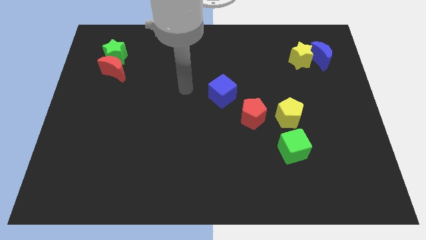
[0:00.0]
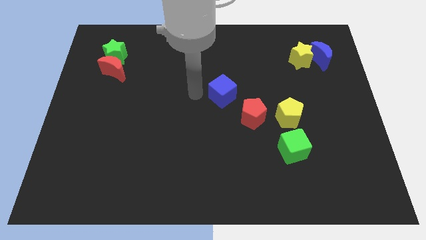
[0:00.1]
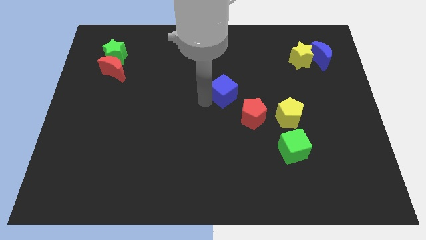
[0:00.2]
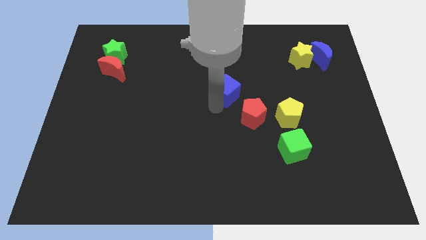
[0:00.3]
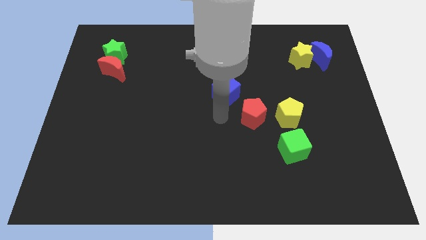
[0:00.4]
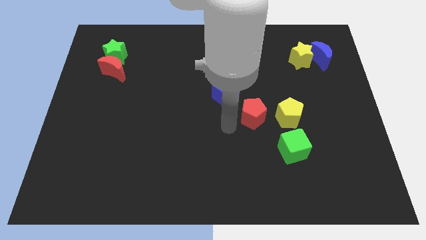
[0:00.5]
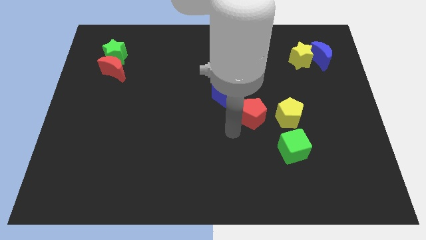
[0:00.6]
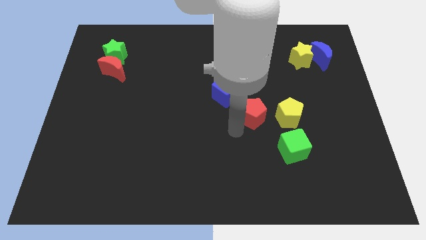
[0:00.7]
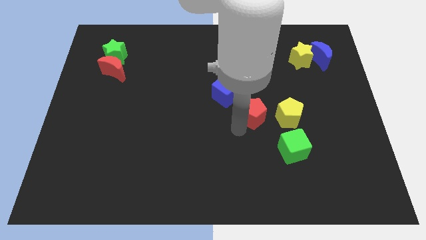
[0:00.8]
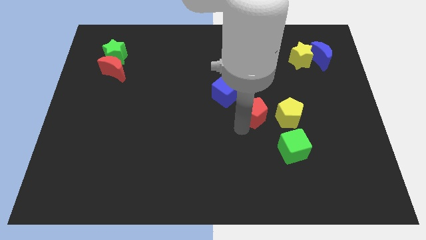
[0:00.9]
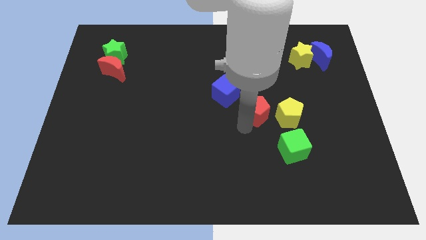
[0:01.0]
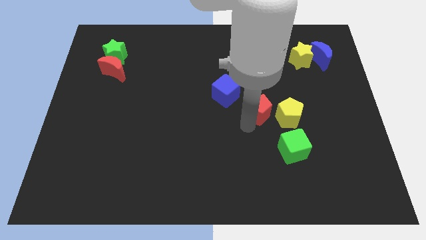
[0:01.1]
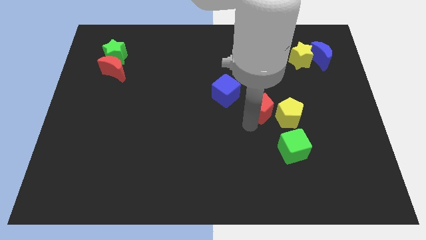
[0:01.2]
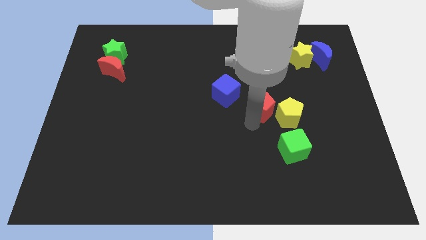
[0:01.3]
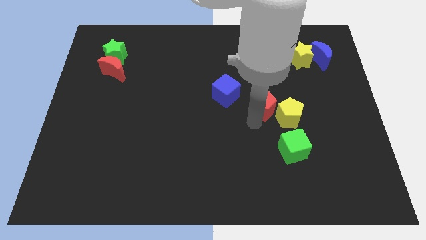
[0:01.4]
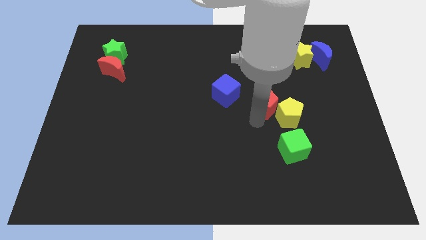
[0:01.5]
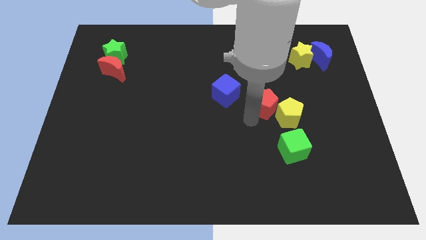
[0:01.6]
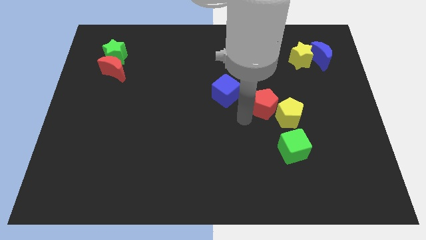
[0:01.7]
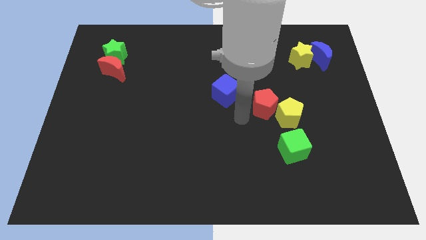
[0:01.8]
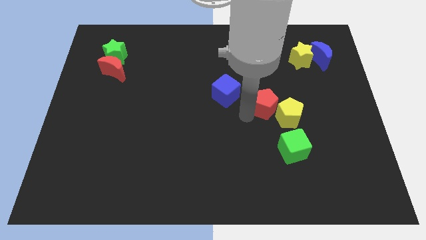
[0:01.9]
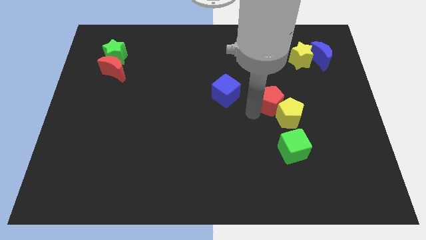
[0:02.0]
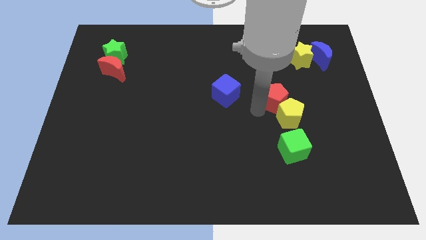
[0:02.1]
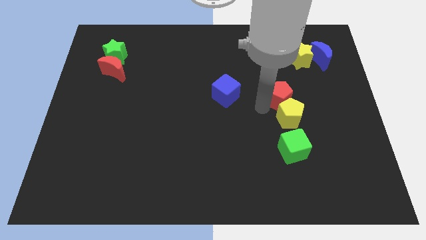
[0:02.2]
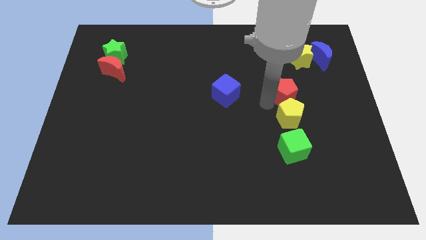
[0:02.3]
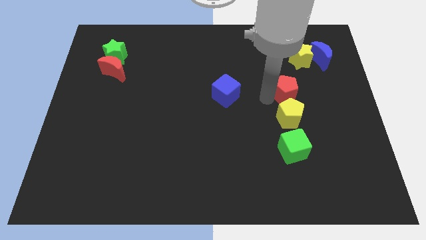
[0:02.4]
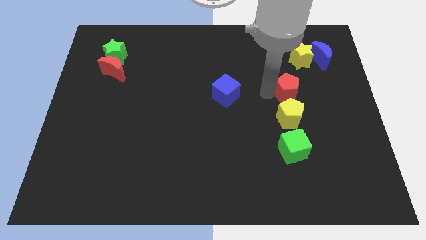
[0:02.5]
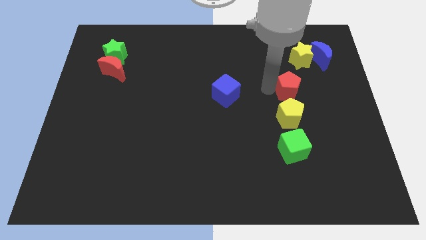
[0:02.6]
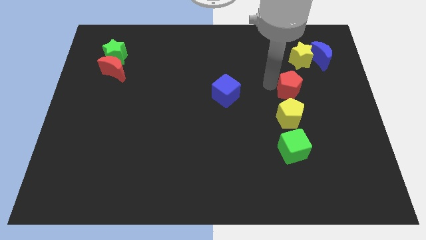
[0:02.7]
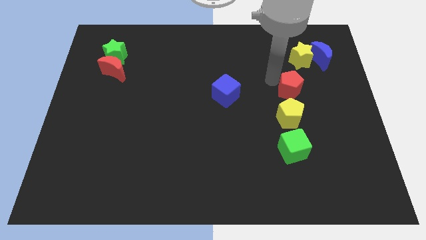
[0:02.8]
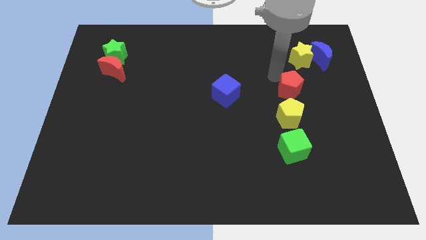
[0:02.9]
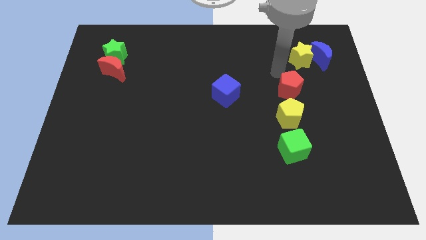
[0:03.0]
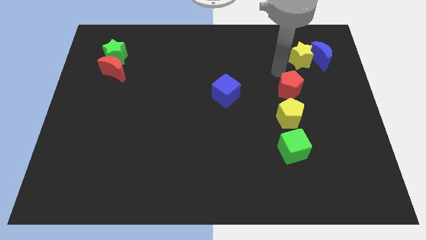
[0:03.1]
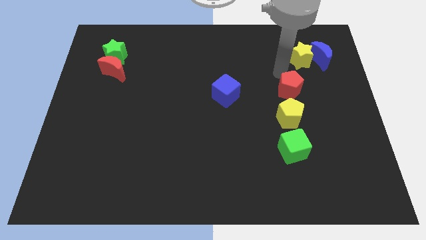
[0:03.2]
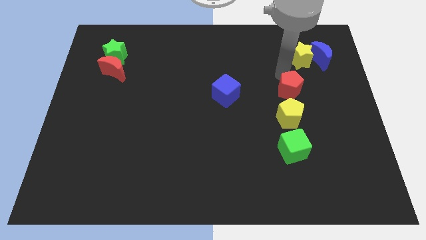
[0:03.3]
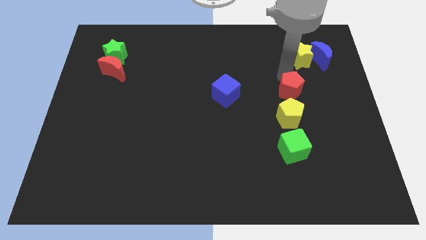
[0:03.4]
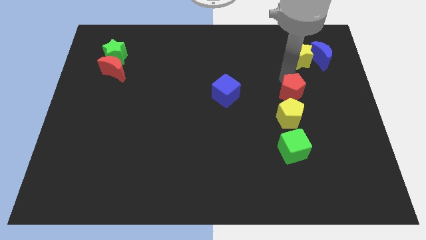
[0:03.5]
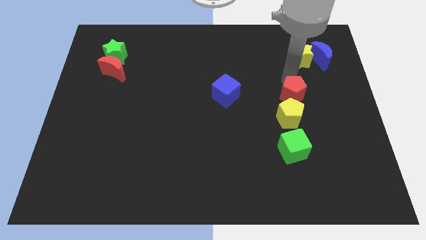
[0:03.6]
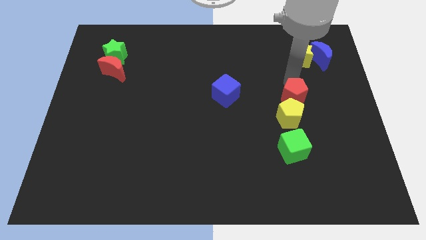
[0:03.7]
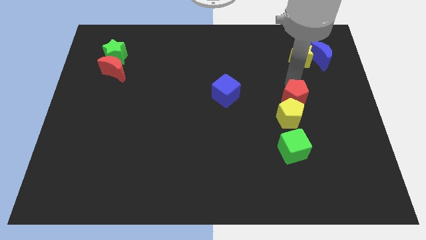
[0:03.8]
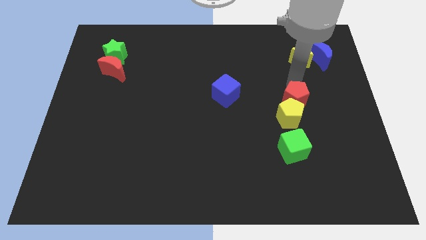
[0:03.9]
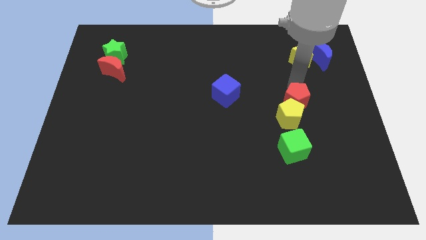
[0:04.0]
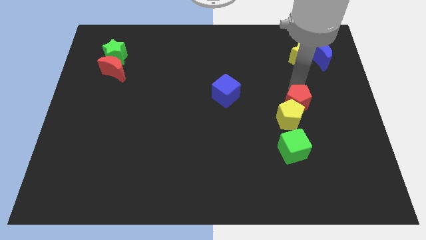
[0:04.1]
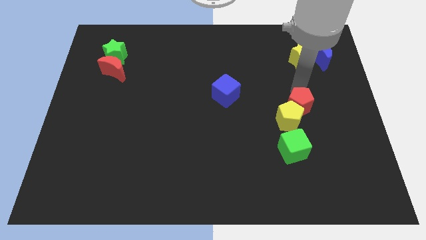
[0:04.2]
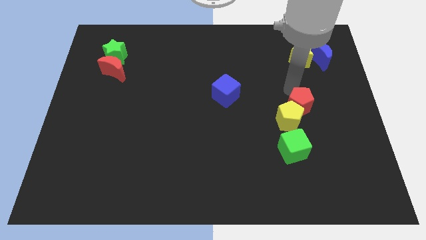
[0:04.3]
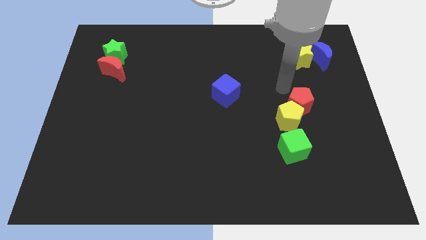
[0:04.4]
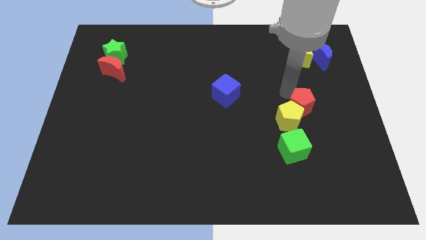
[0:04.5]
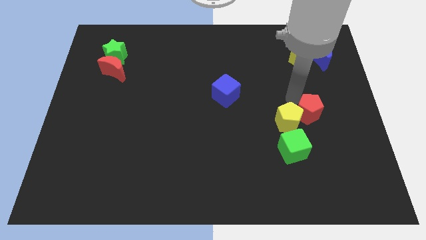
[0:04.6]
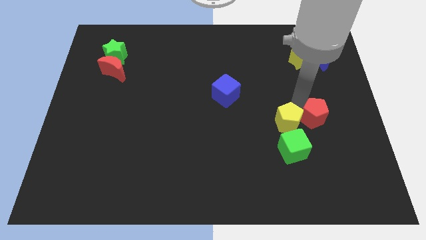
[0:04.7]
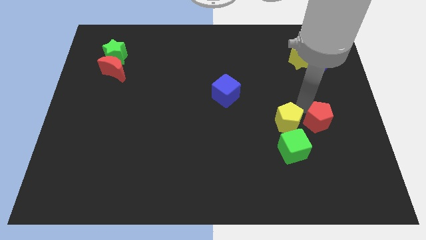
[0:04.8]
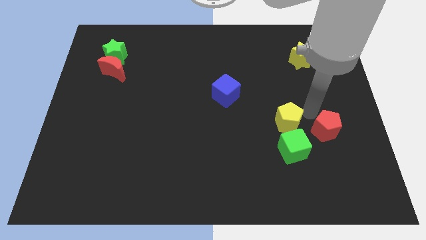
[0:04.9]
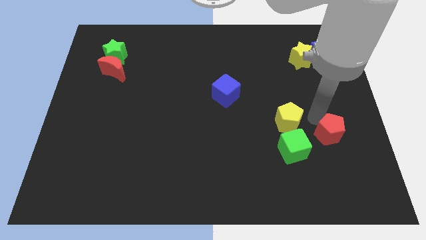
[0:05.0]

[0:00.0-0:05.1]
put the red pentagon right of the green cube

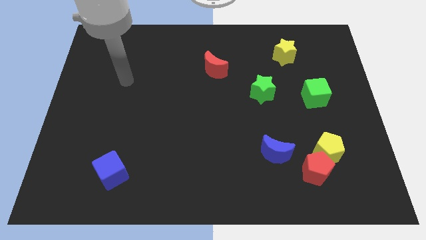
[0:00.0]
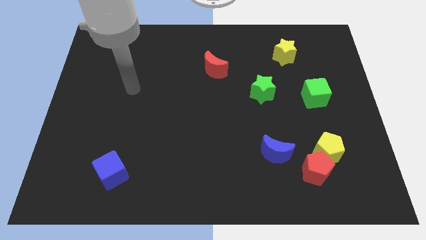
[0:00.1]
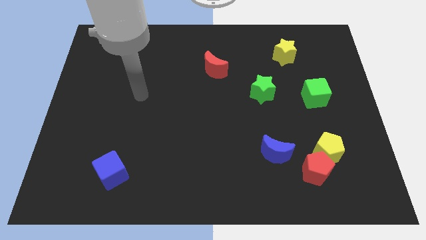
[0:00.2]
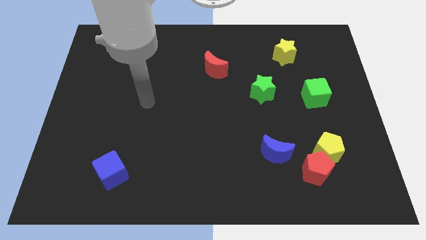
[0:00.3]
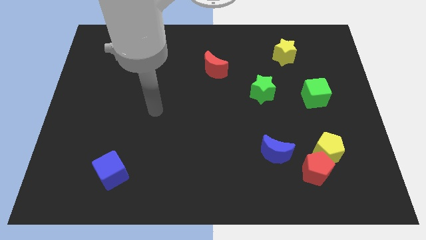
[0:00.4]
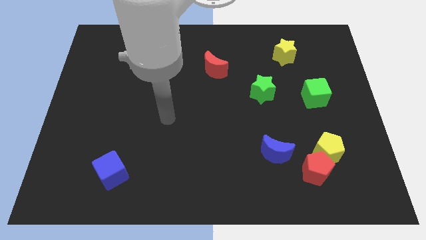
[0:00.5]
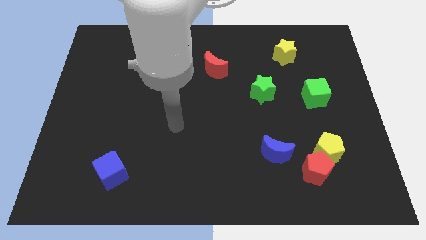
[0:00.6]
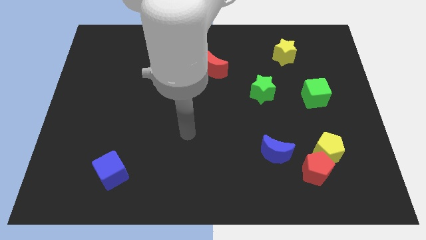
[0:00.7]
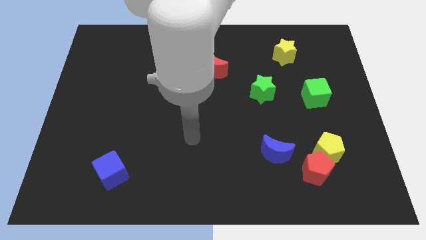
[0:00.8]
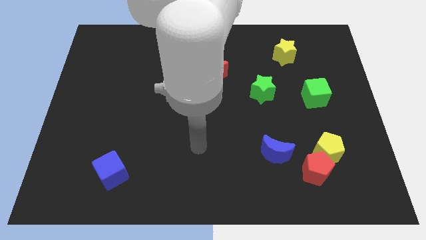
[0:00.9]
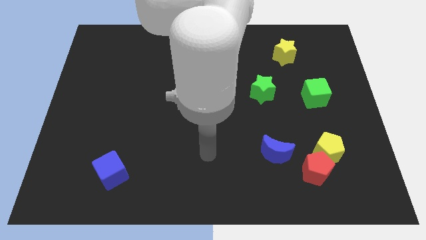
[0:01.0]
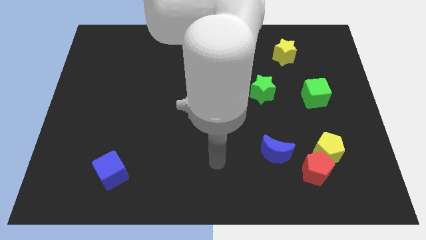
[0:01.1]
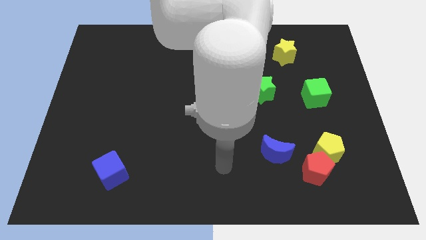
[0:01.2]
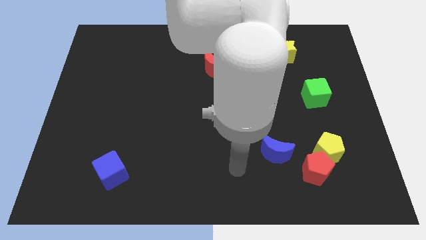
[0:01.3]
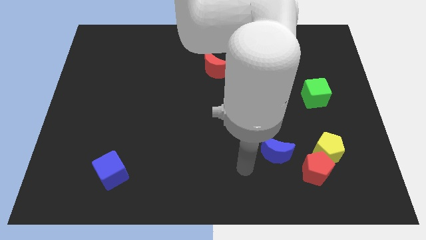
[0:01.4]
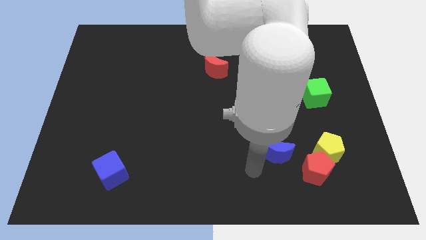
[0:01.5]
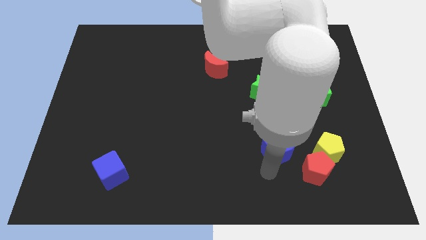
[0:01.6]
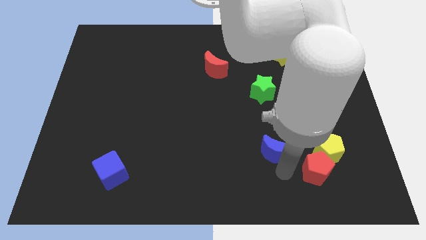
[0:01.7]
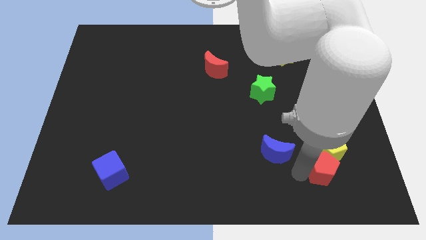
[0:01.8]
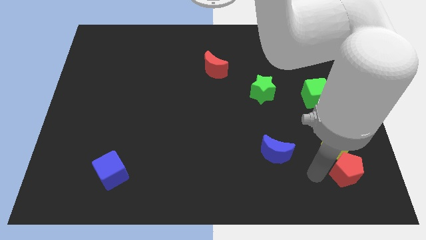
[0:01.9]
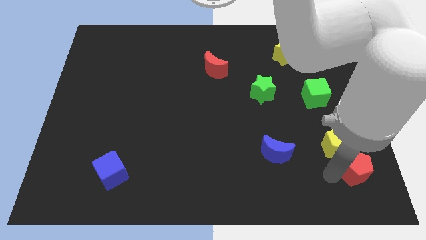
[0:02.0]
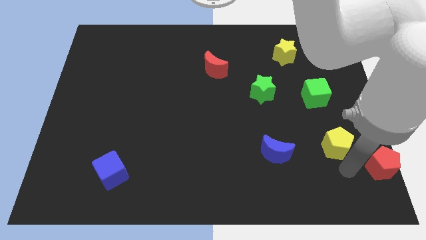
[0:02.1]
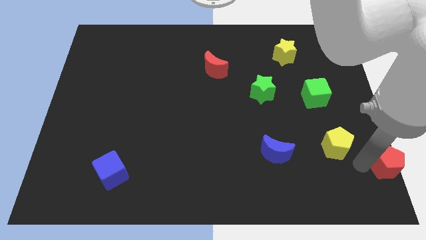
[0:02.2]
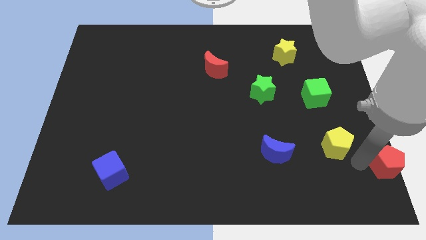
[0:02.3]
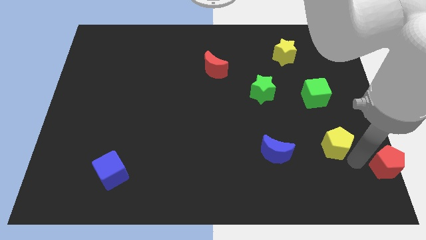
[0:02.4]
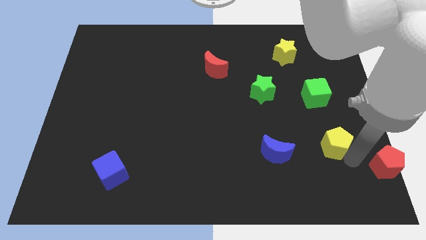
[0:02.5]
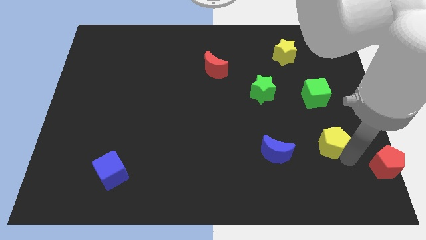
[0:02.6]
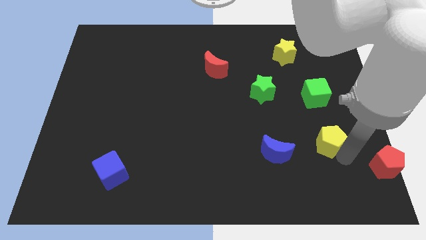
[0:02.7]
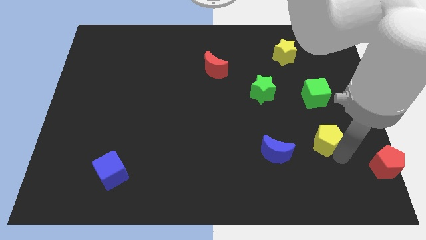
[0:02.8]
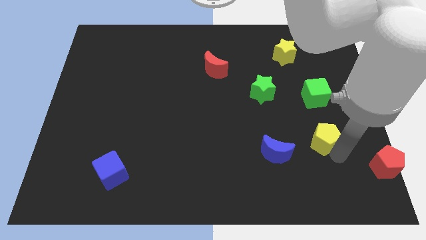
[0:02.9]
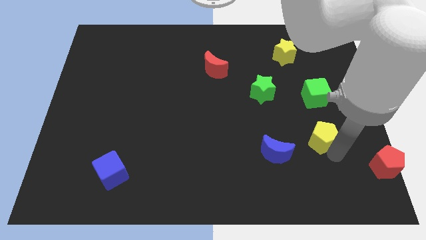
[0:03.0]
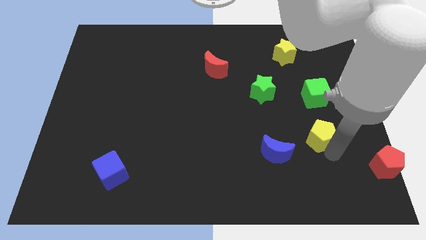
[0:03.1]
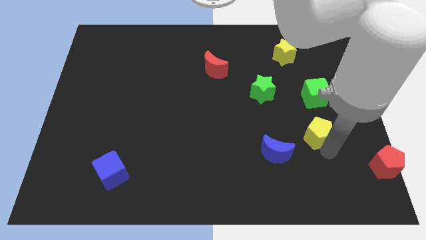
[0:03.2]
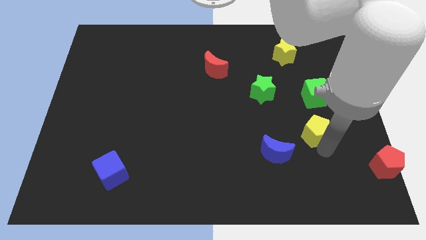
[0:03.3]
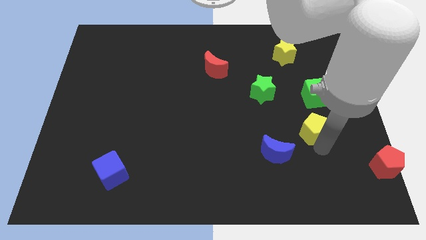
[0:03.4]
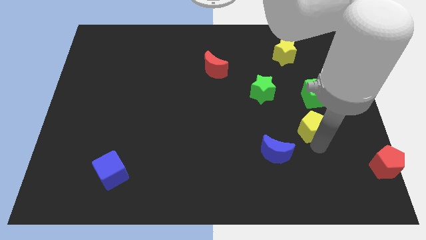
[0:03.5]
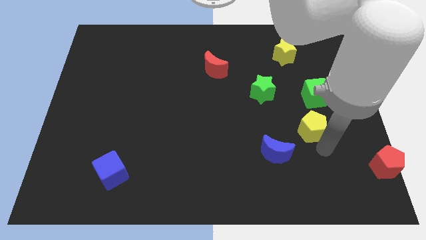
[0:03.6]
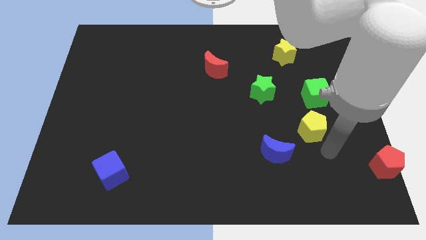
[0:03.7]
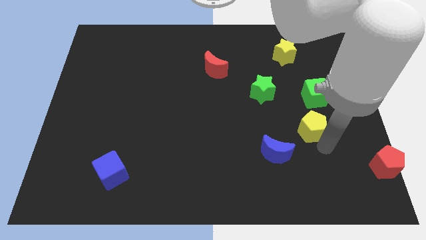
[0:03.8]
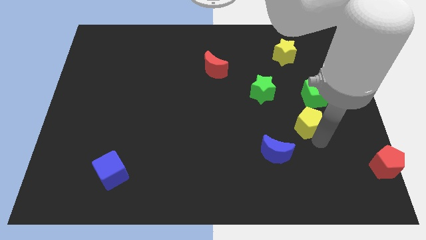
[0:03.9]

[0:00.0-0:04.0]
move the yellow pentagon to the bottom left side of the green cube
